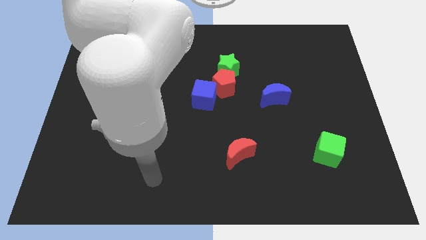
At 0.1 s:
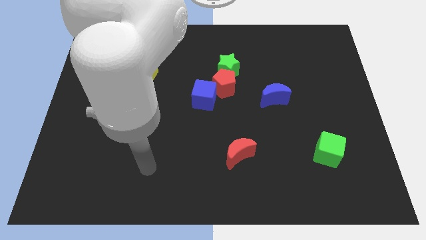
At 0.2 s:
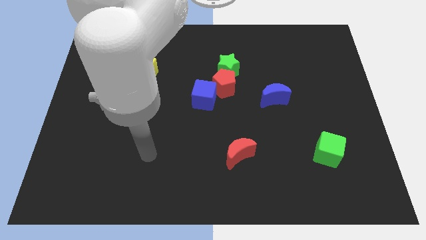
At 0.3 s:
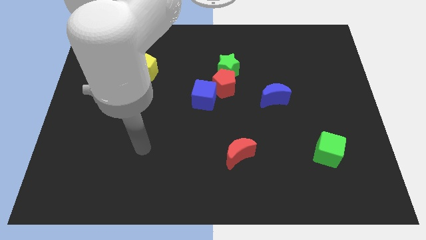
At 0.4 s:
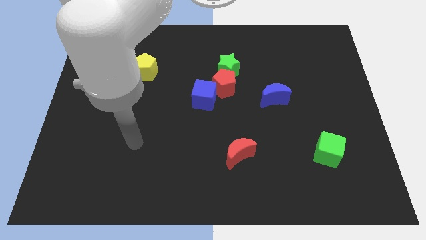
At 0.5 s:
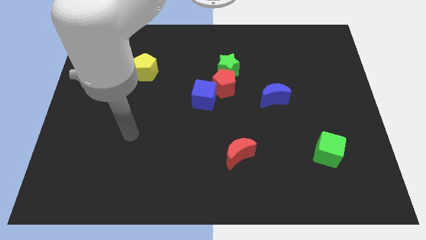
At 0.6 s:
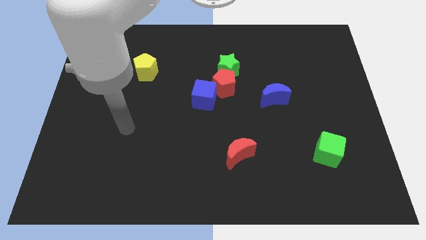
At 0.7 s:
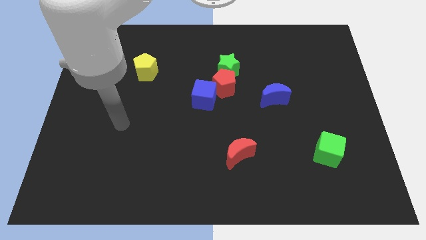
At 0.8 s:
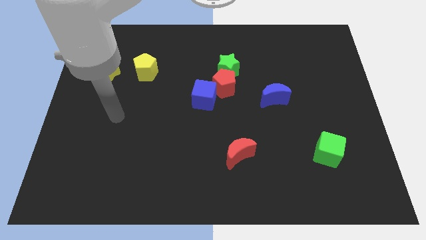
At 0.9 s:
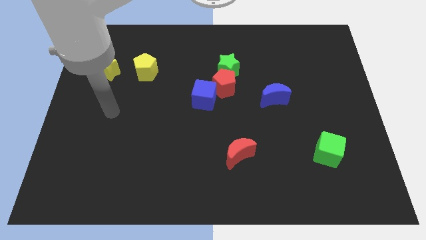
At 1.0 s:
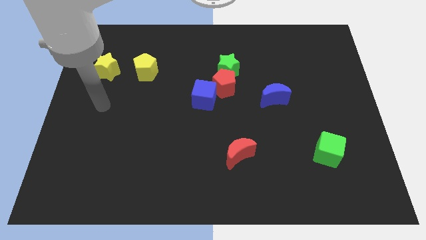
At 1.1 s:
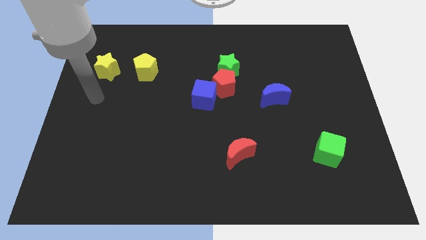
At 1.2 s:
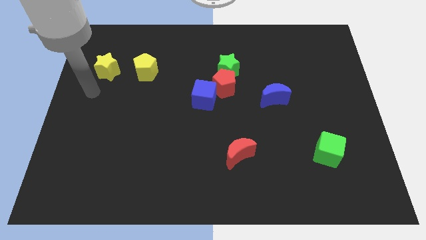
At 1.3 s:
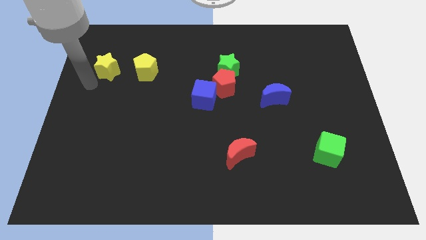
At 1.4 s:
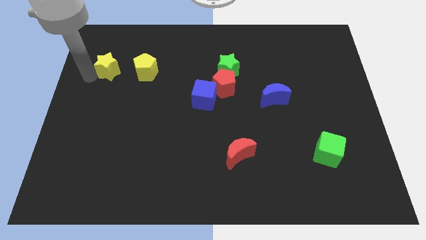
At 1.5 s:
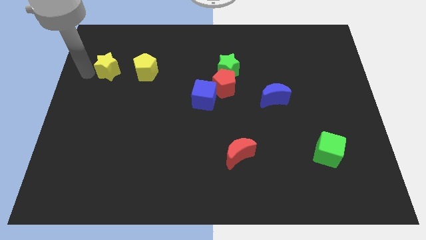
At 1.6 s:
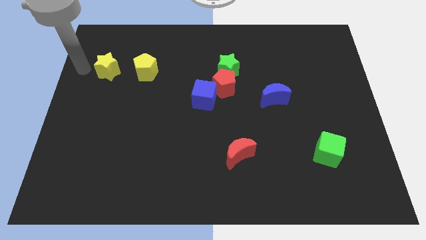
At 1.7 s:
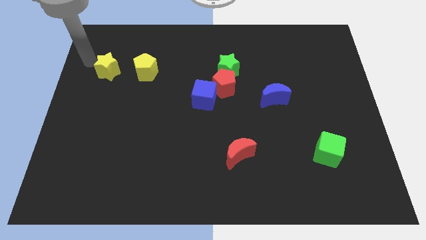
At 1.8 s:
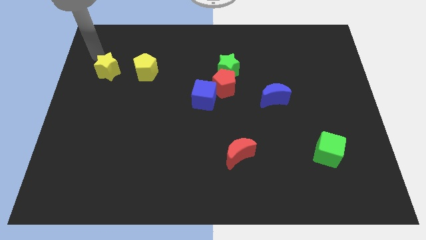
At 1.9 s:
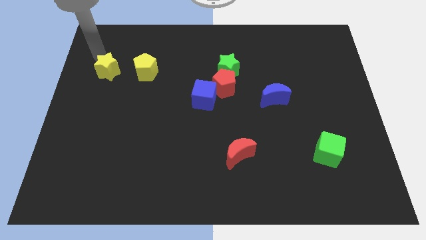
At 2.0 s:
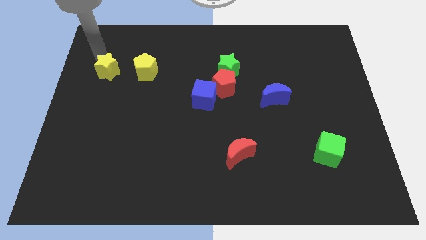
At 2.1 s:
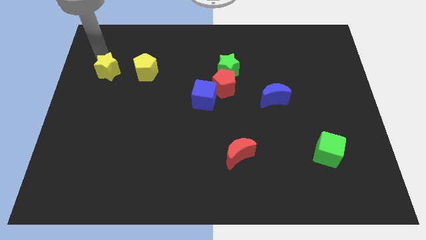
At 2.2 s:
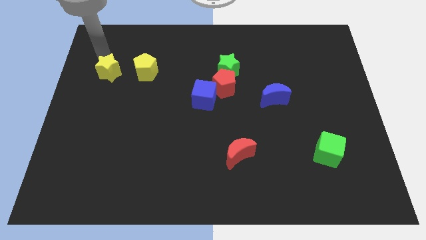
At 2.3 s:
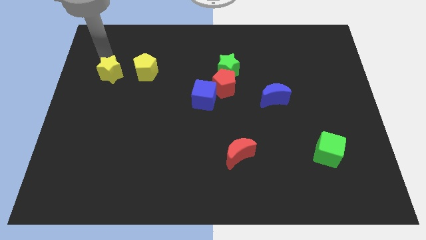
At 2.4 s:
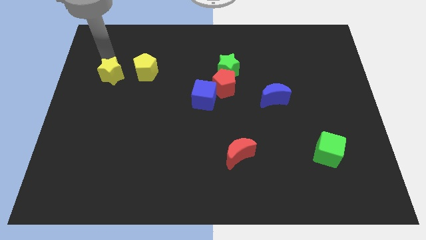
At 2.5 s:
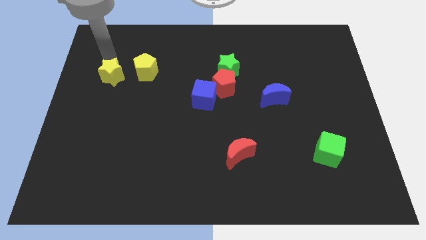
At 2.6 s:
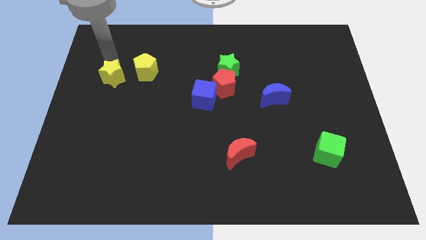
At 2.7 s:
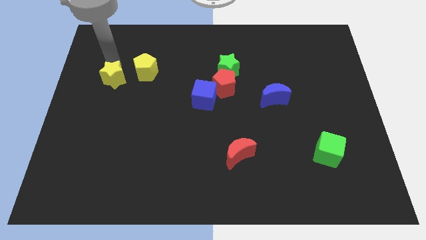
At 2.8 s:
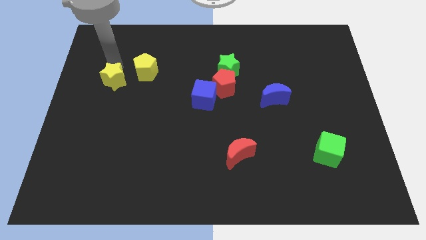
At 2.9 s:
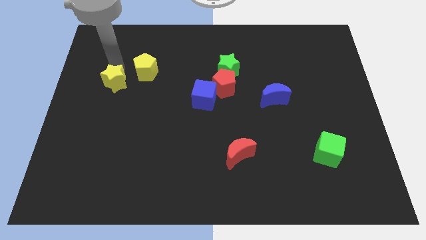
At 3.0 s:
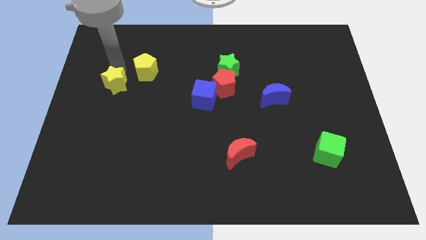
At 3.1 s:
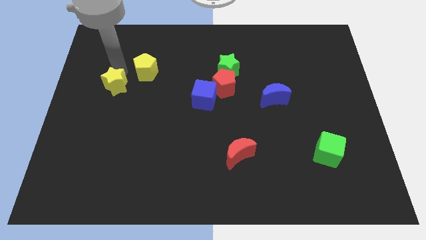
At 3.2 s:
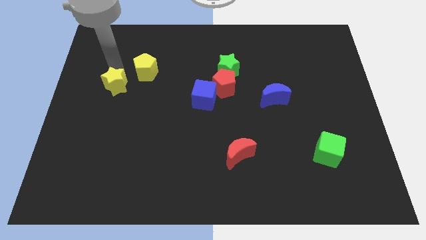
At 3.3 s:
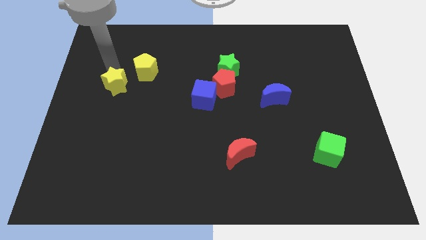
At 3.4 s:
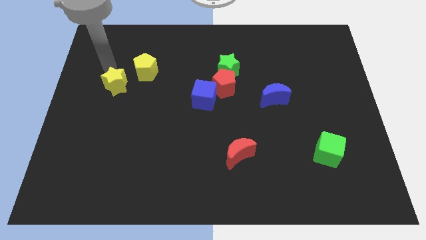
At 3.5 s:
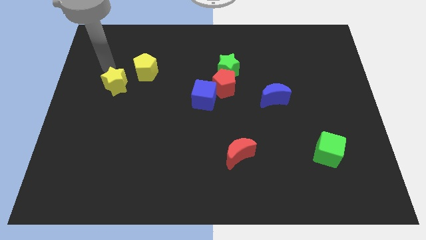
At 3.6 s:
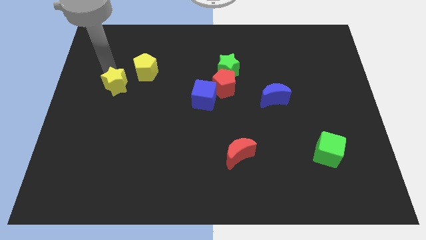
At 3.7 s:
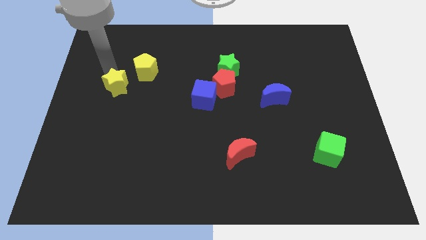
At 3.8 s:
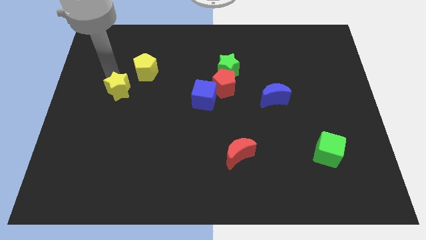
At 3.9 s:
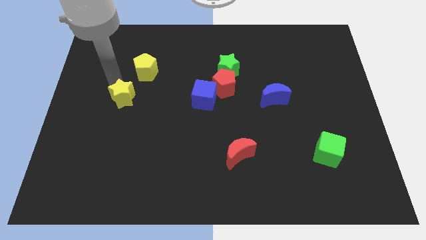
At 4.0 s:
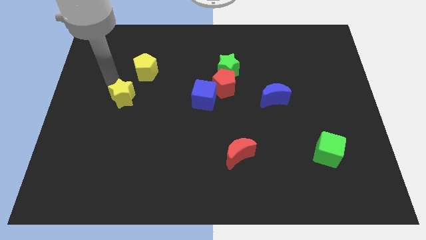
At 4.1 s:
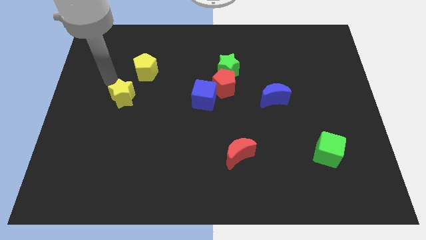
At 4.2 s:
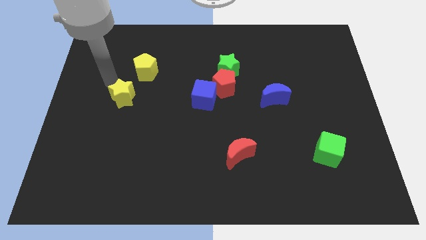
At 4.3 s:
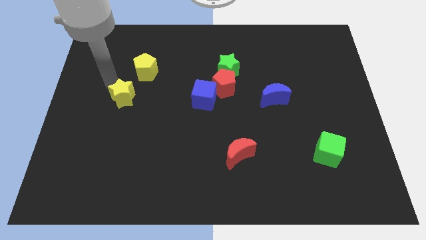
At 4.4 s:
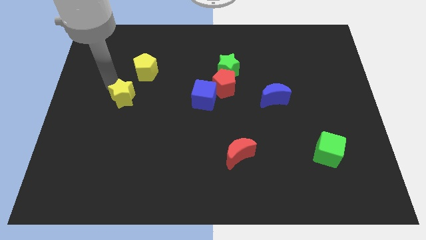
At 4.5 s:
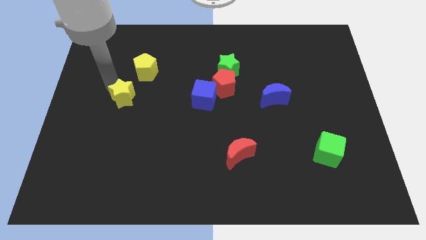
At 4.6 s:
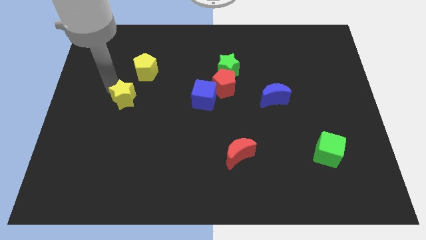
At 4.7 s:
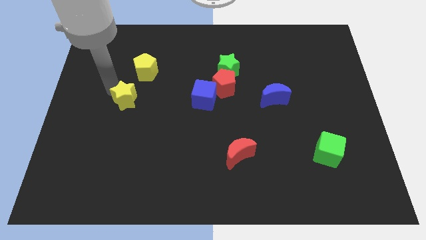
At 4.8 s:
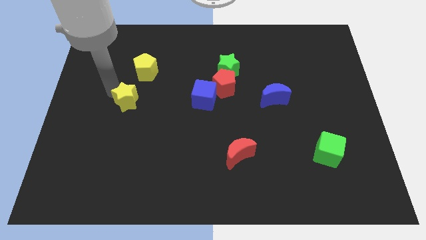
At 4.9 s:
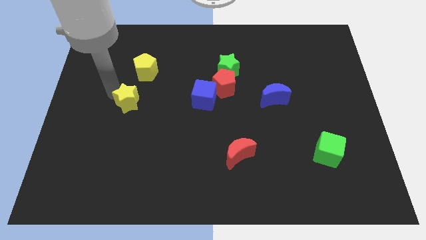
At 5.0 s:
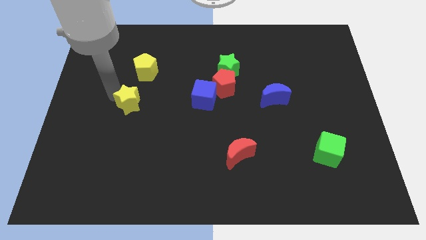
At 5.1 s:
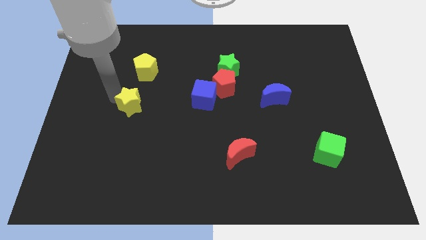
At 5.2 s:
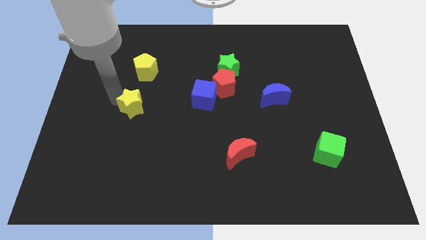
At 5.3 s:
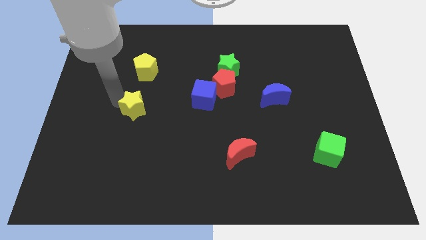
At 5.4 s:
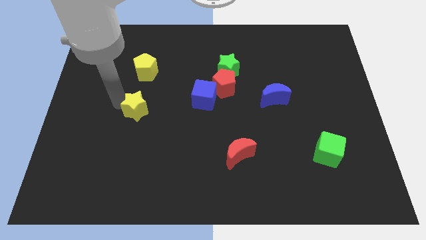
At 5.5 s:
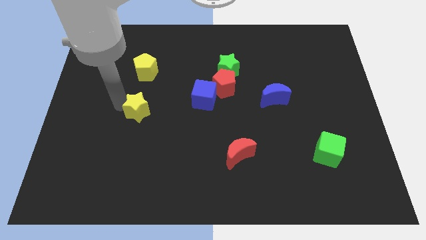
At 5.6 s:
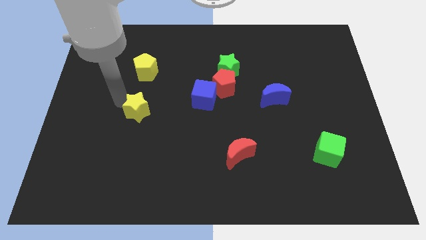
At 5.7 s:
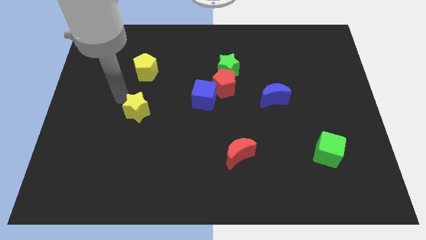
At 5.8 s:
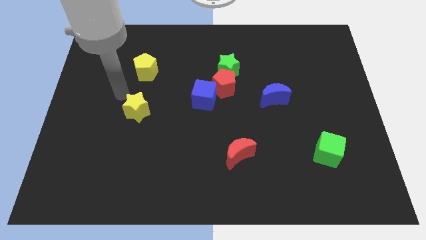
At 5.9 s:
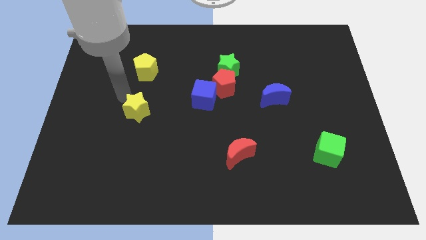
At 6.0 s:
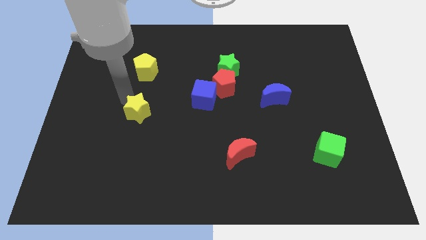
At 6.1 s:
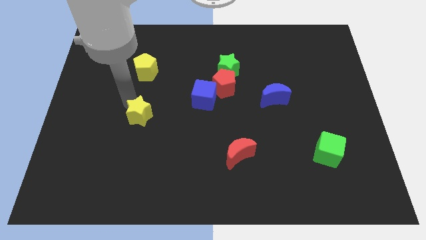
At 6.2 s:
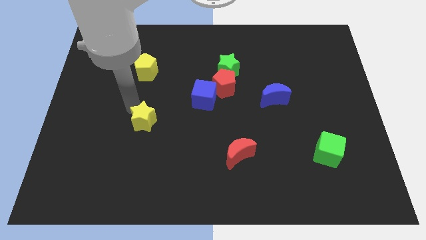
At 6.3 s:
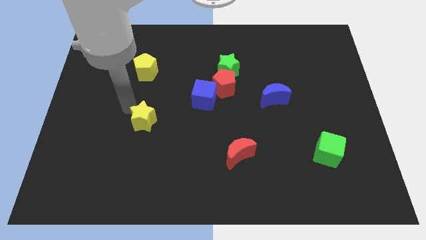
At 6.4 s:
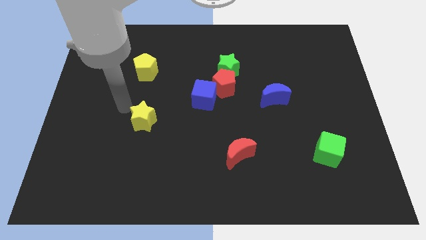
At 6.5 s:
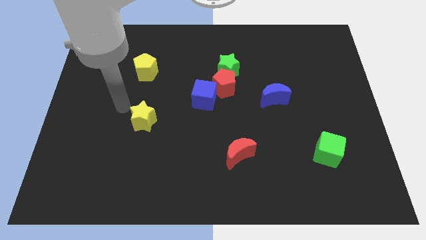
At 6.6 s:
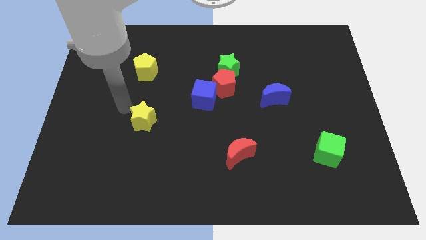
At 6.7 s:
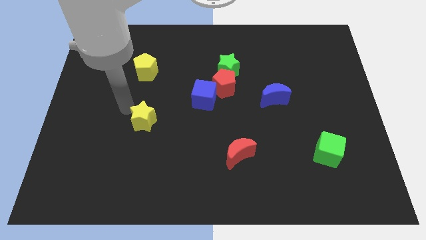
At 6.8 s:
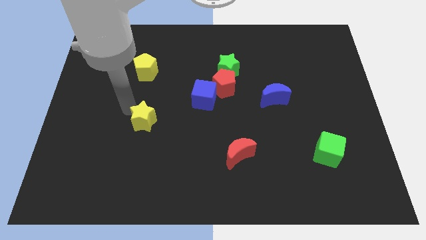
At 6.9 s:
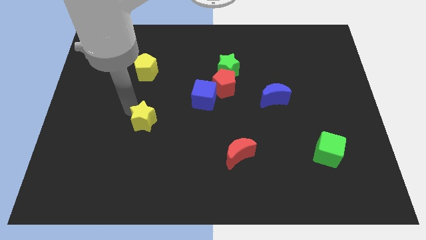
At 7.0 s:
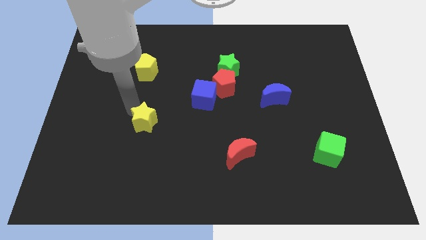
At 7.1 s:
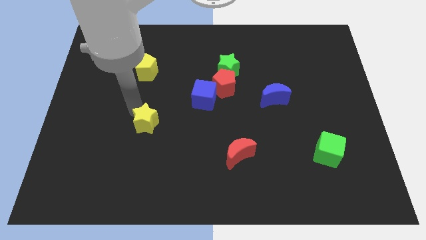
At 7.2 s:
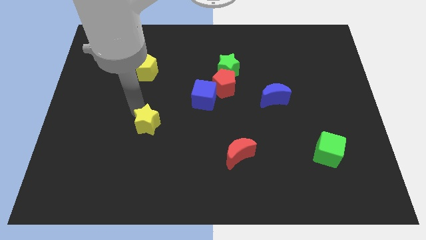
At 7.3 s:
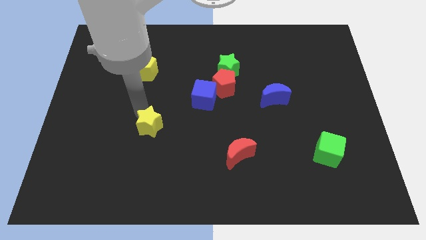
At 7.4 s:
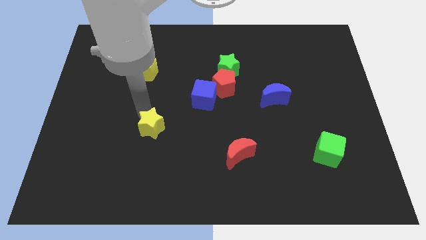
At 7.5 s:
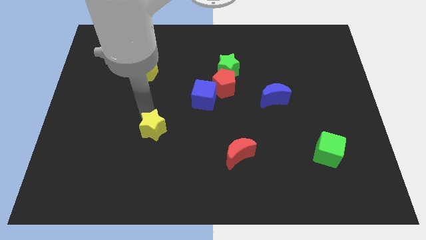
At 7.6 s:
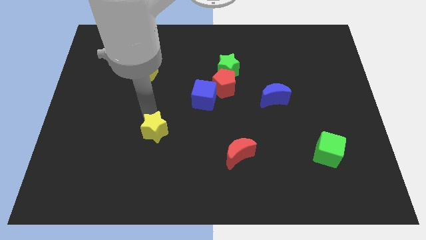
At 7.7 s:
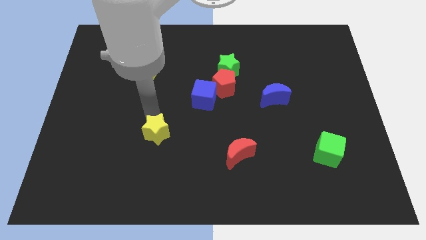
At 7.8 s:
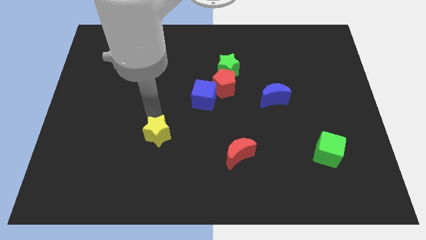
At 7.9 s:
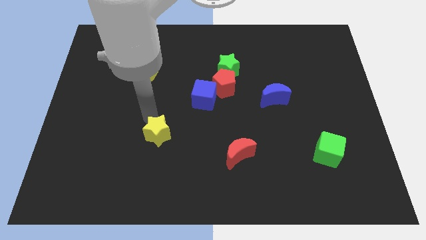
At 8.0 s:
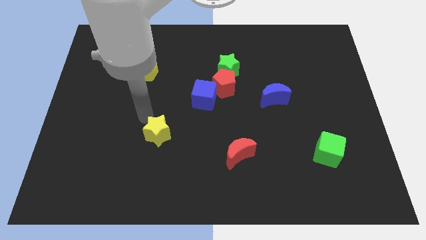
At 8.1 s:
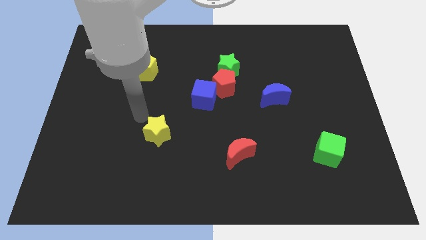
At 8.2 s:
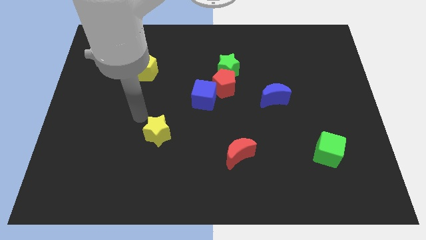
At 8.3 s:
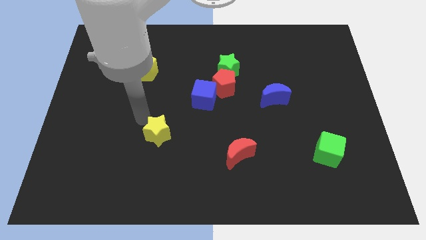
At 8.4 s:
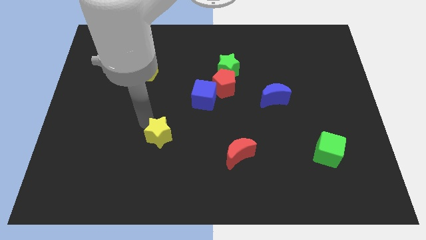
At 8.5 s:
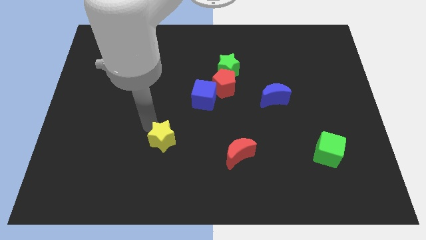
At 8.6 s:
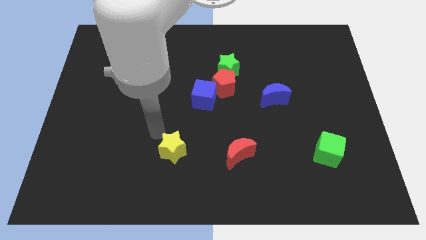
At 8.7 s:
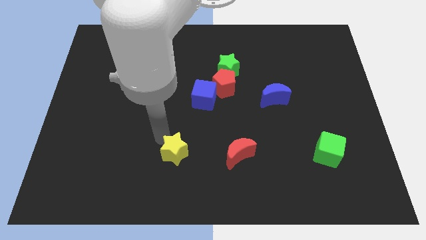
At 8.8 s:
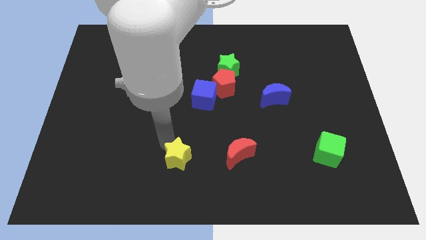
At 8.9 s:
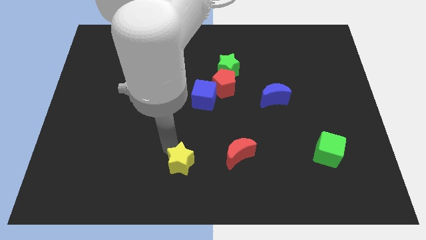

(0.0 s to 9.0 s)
push the yellow star to the bottom side
